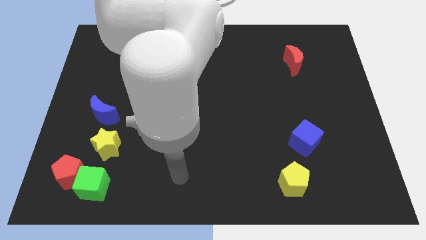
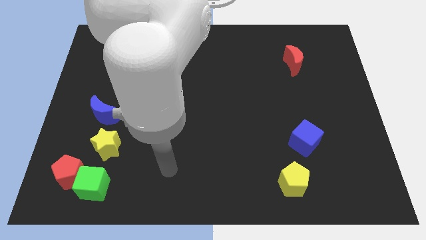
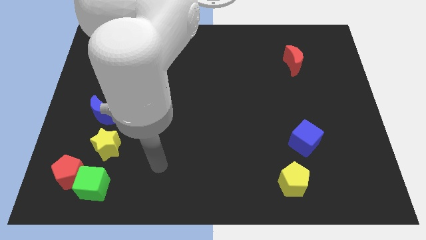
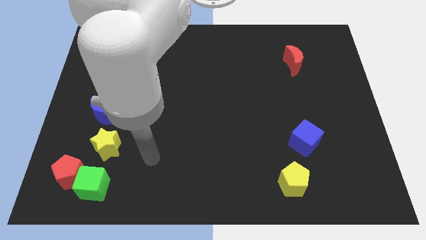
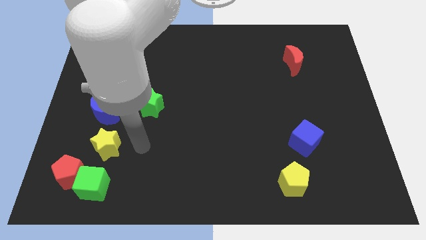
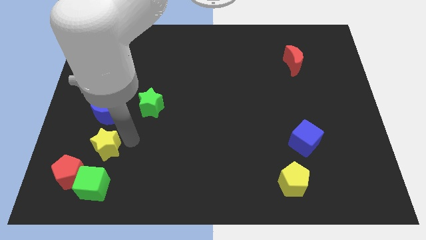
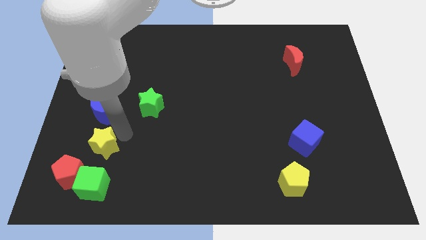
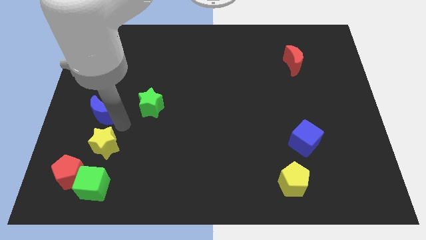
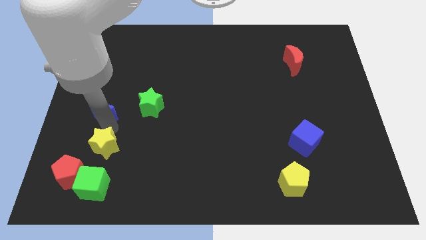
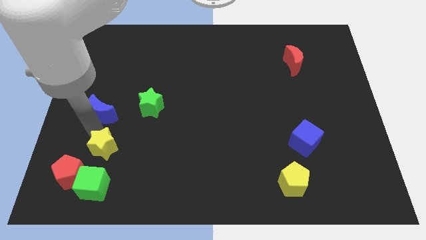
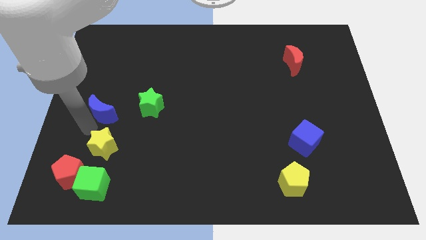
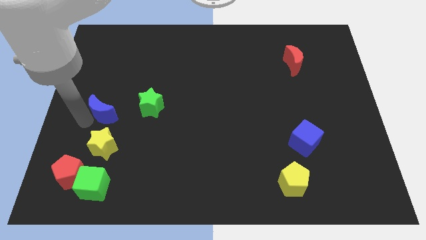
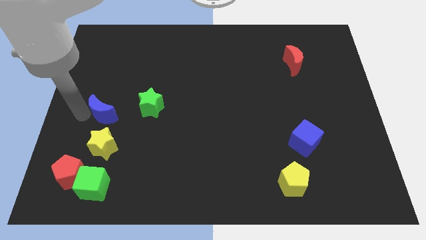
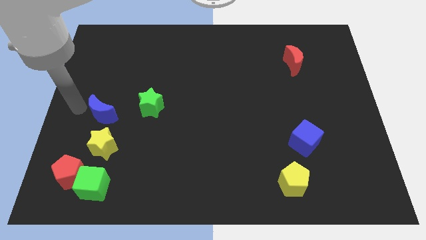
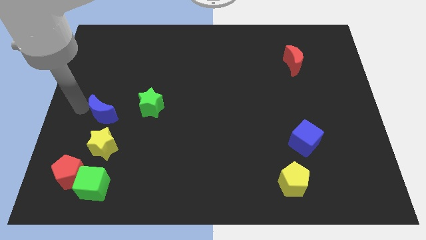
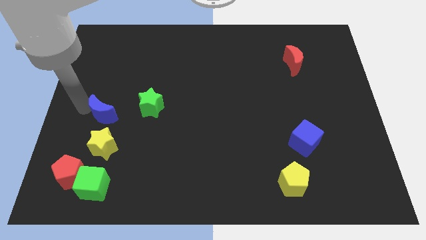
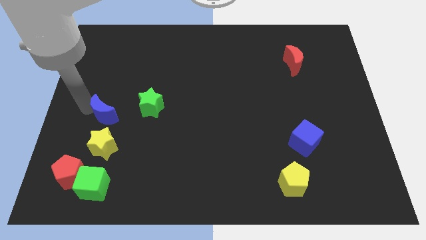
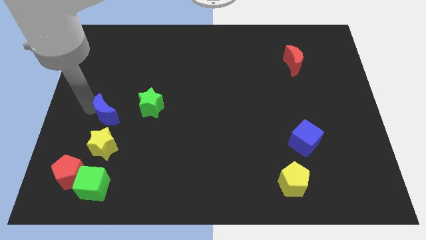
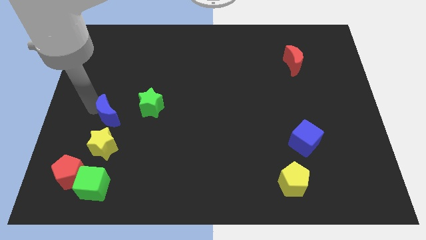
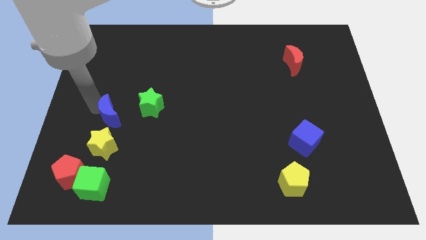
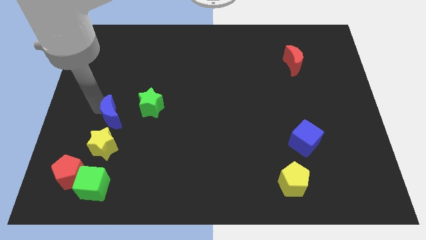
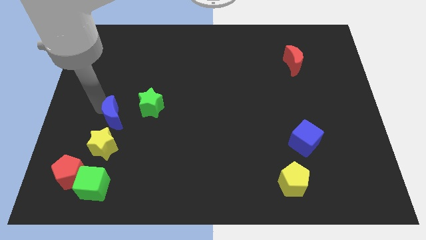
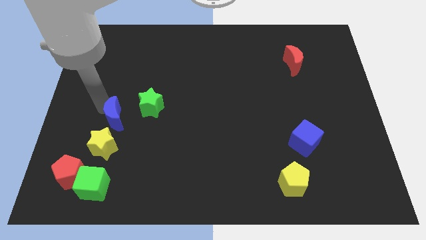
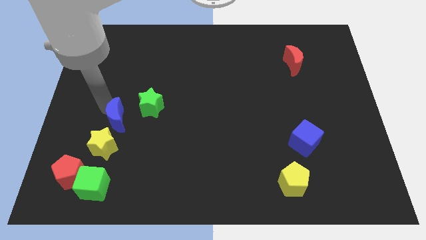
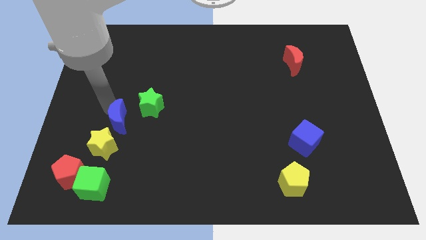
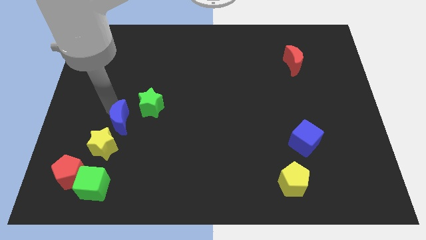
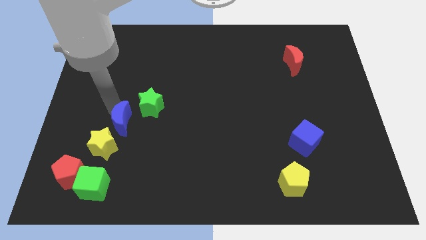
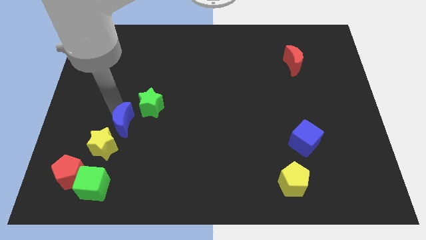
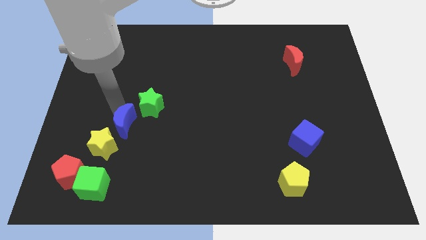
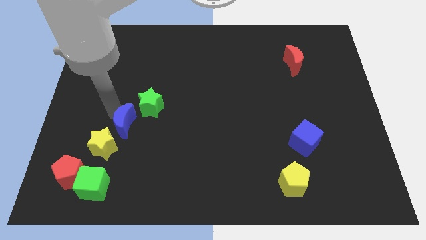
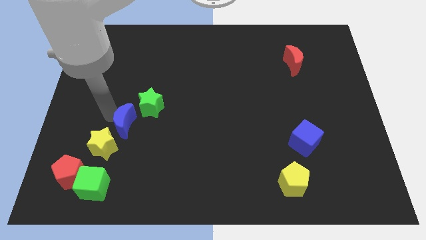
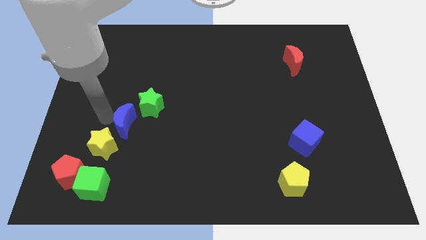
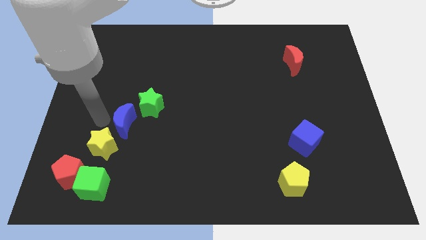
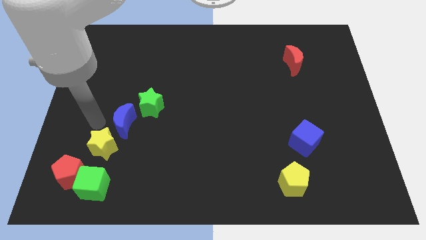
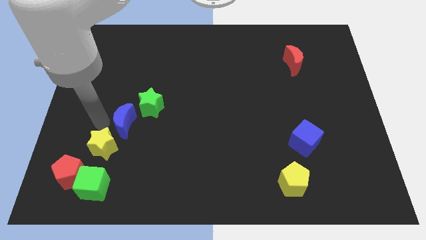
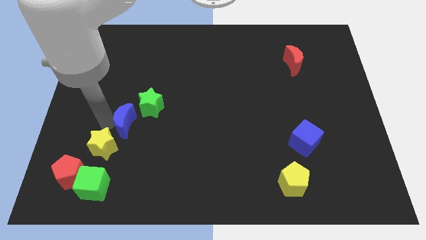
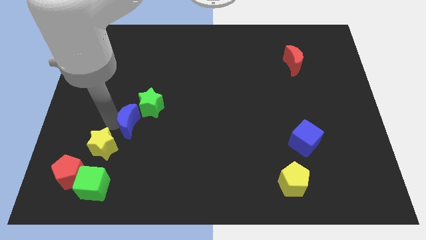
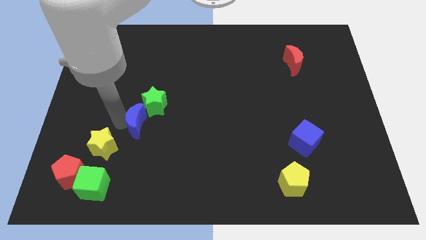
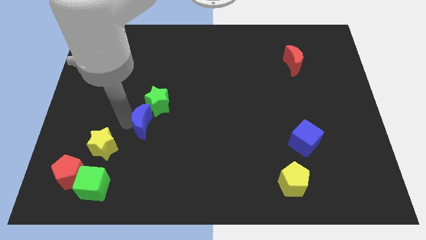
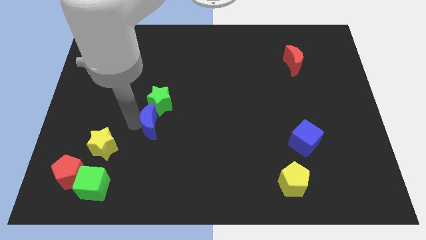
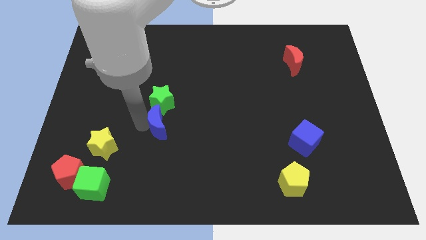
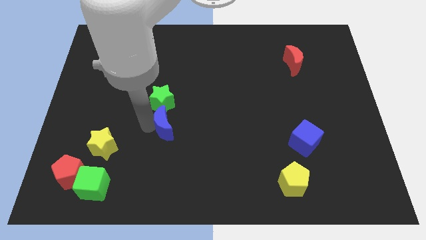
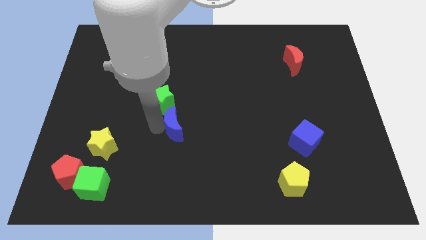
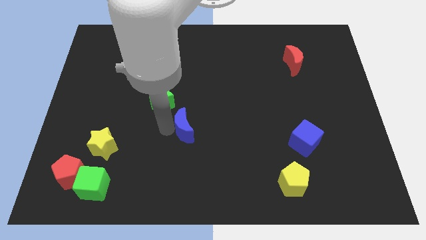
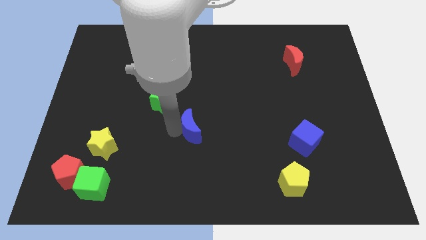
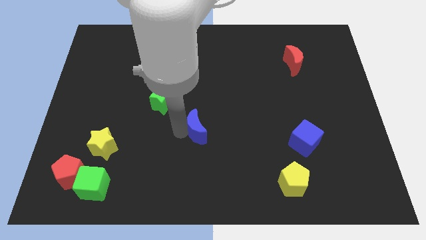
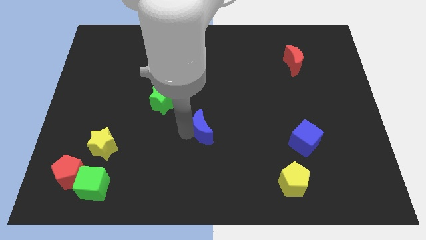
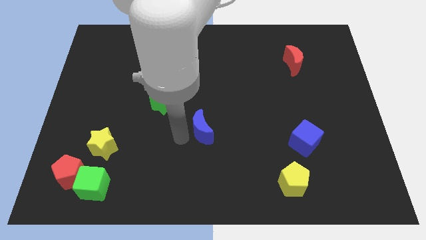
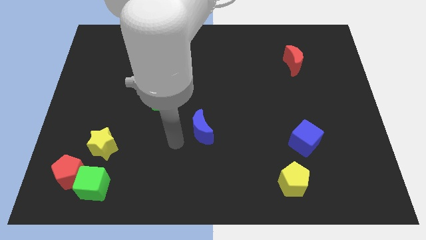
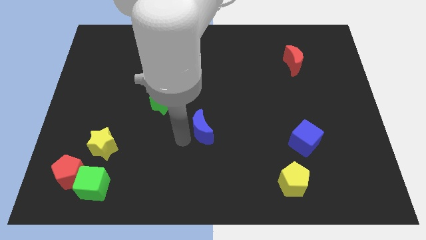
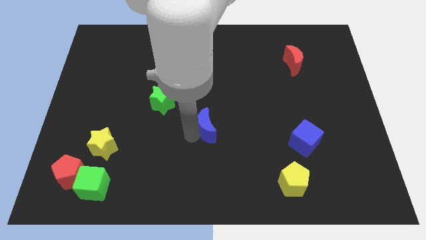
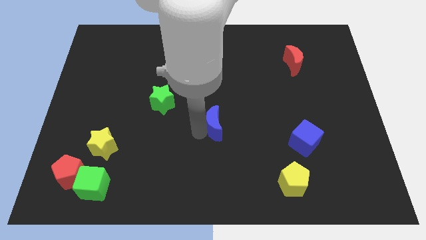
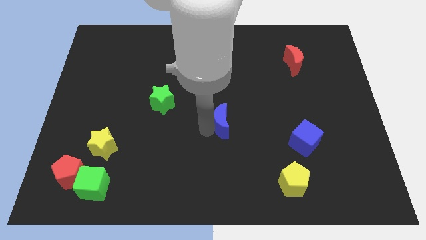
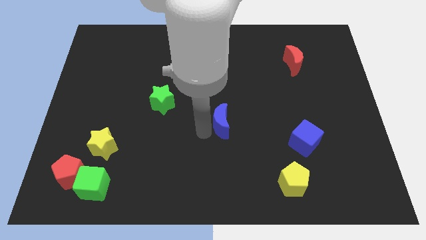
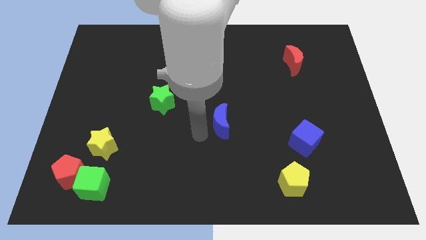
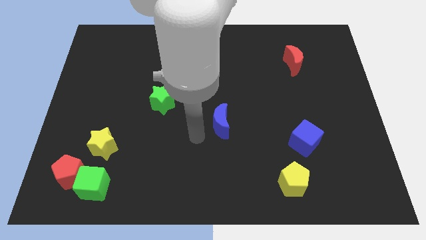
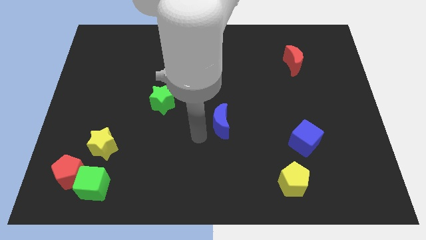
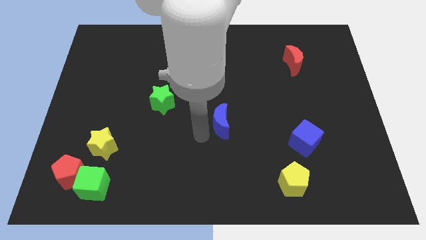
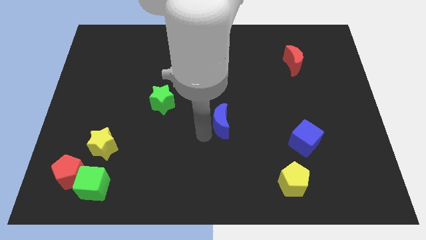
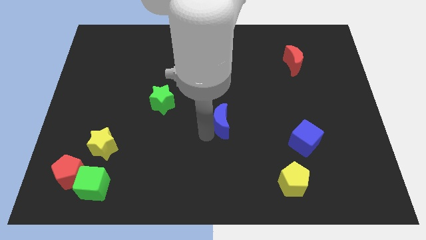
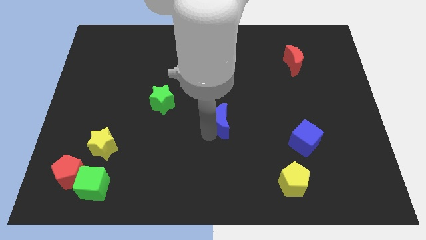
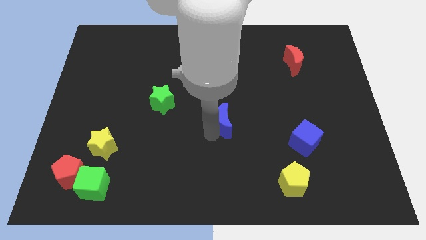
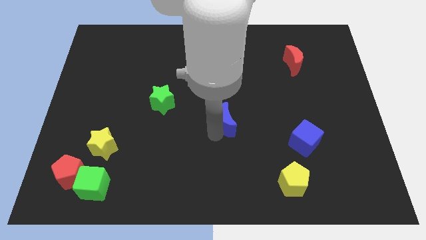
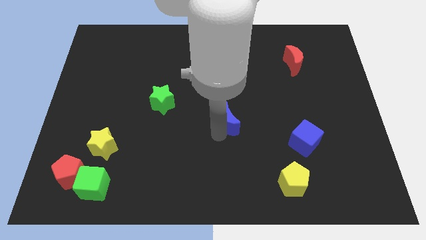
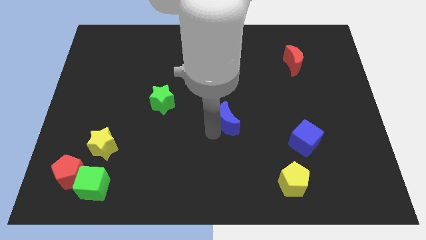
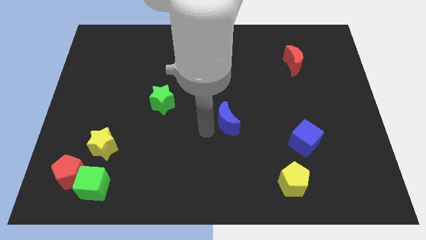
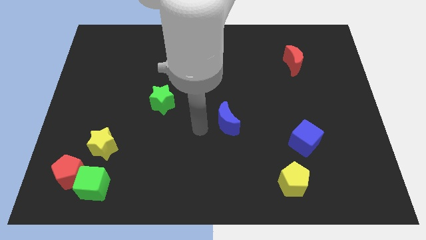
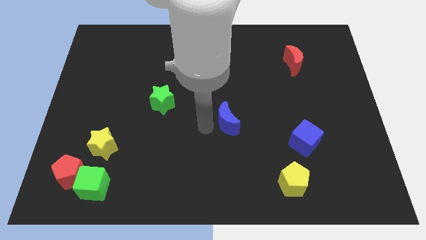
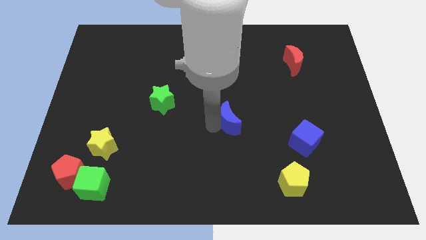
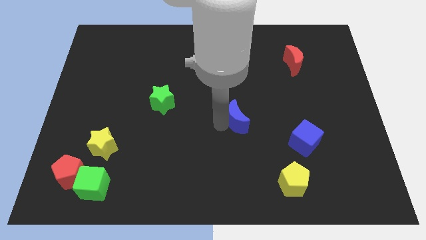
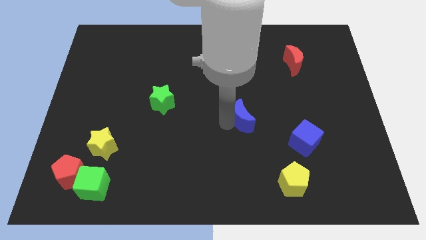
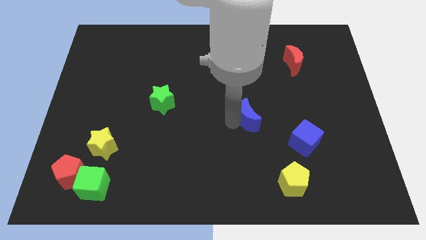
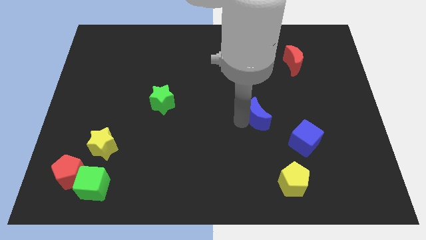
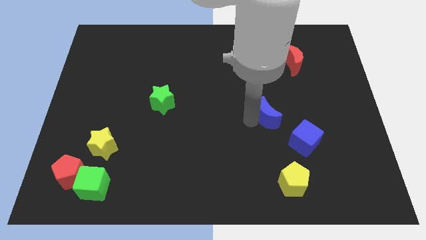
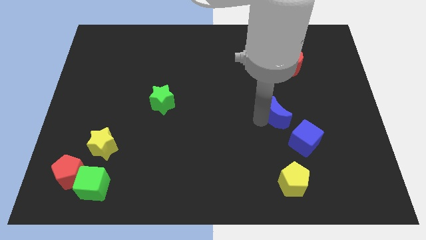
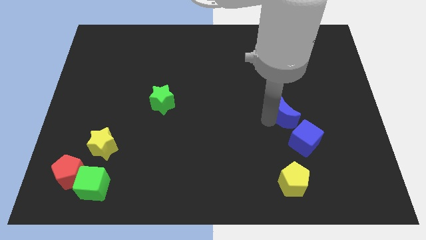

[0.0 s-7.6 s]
push the blue moon to the top of the blue cube
